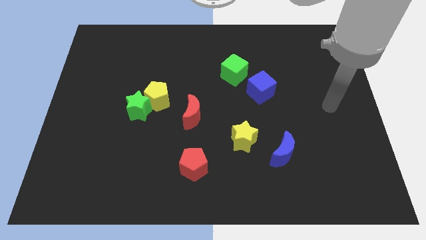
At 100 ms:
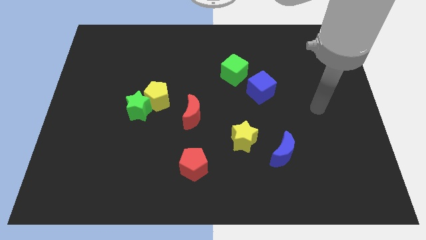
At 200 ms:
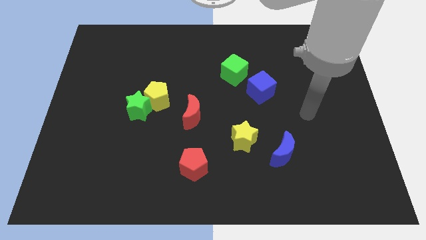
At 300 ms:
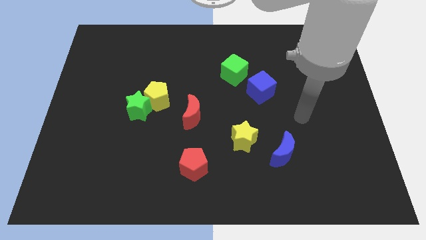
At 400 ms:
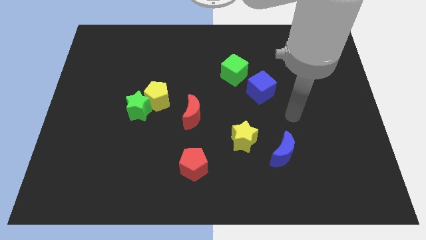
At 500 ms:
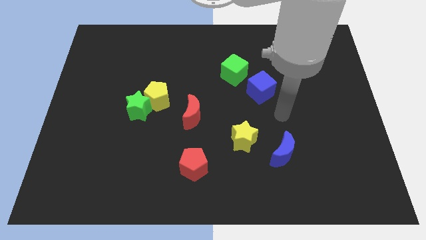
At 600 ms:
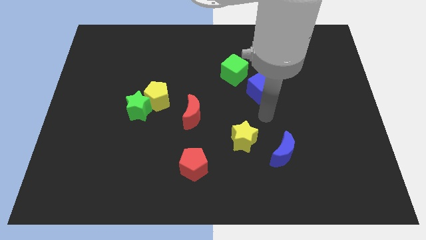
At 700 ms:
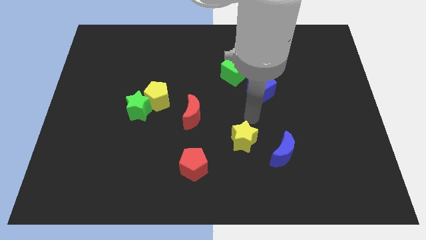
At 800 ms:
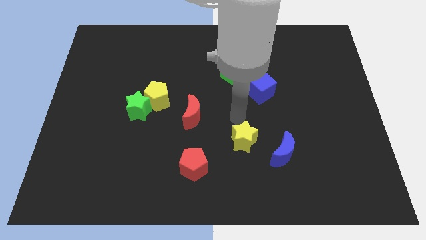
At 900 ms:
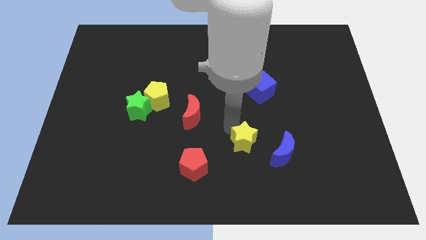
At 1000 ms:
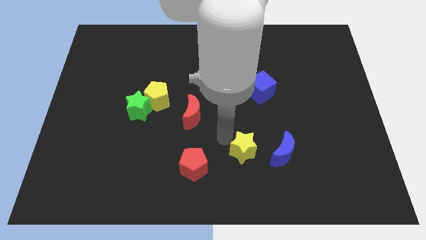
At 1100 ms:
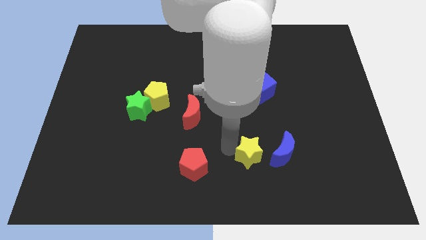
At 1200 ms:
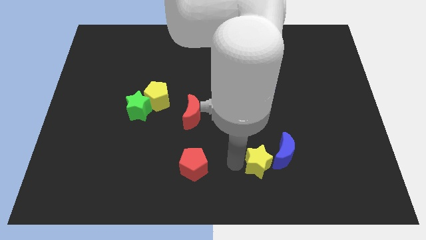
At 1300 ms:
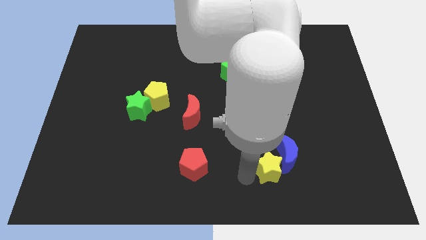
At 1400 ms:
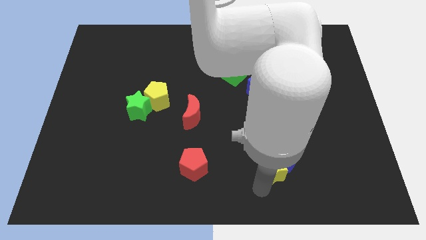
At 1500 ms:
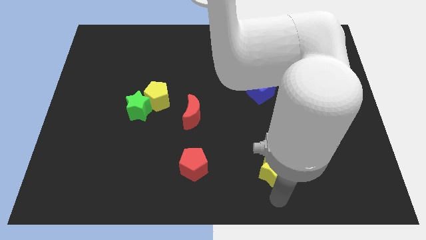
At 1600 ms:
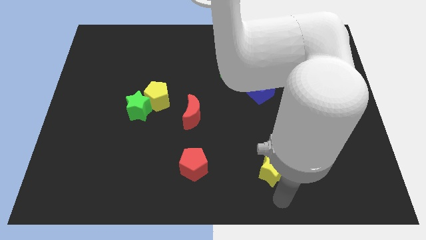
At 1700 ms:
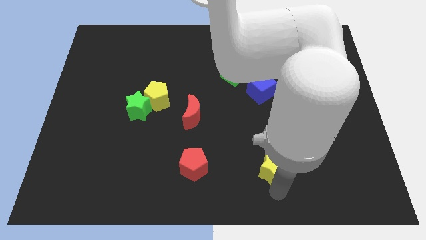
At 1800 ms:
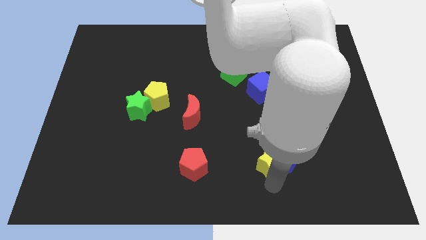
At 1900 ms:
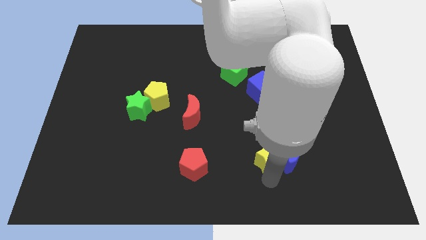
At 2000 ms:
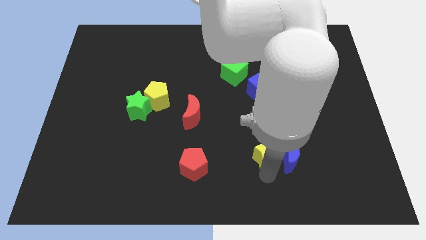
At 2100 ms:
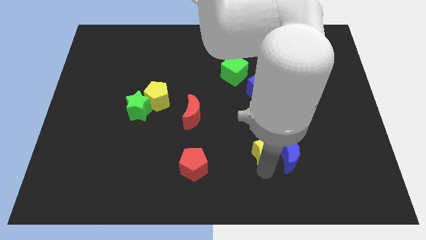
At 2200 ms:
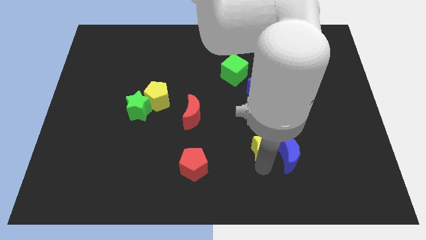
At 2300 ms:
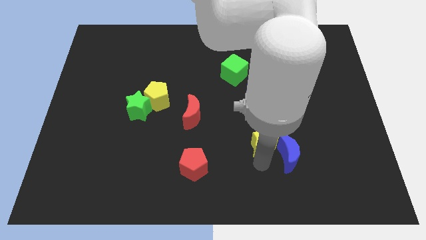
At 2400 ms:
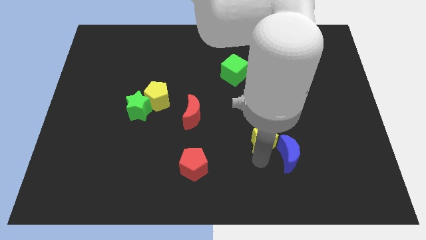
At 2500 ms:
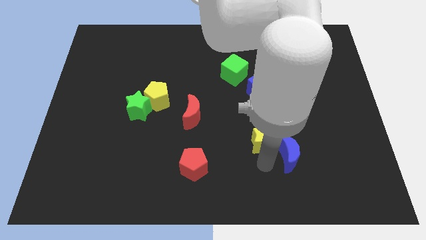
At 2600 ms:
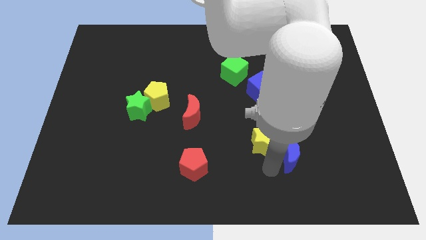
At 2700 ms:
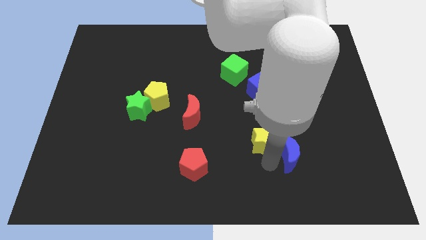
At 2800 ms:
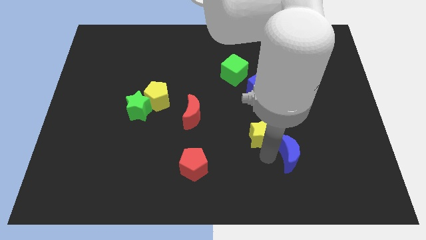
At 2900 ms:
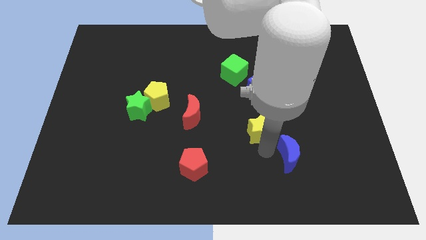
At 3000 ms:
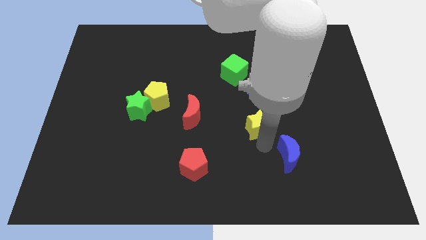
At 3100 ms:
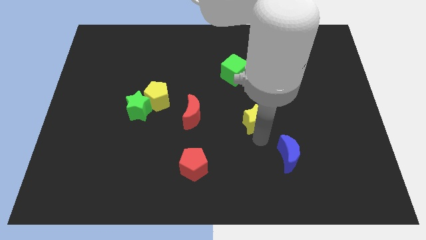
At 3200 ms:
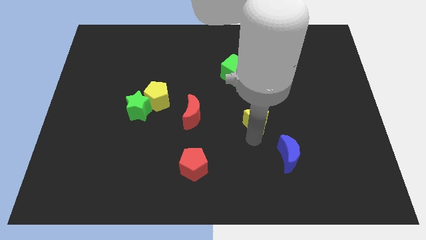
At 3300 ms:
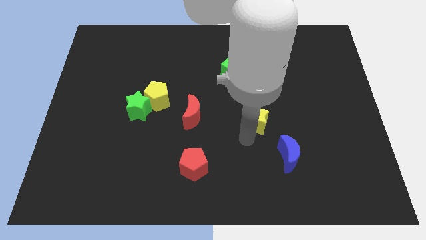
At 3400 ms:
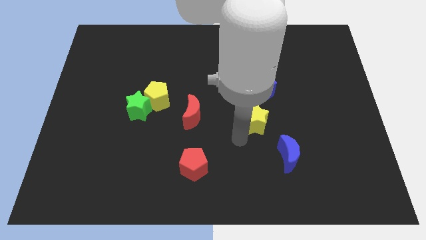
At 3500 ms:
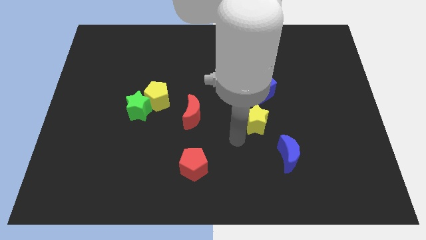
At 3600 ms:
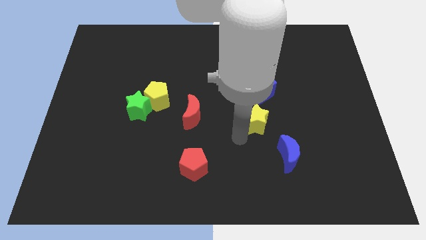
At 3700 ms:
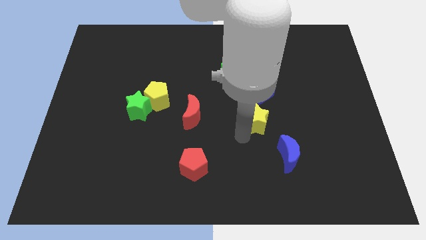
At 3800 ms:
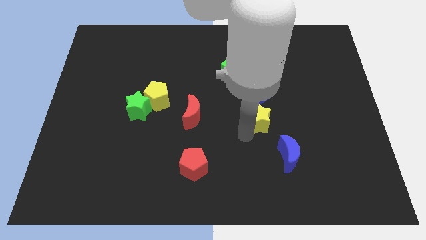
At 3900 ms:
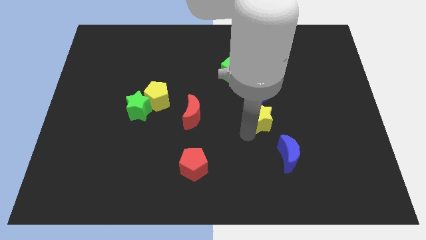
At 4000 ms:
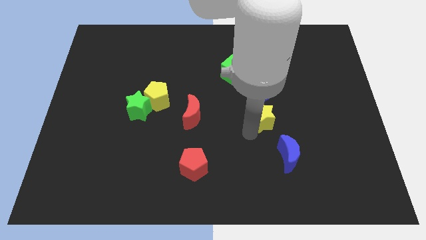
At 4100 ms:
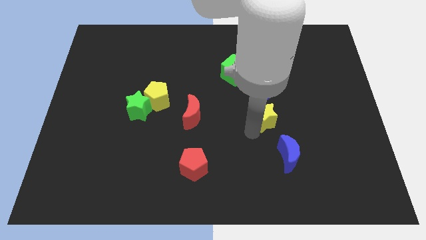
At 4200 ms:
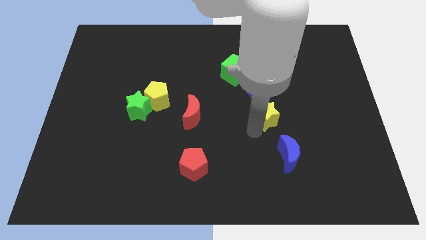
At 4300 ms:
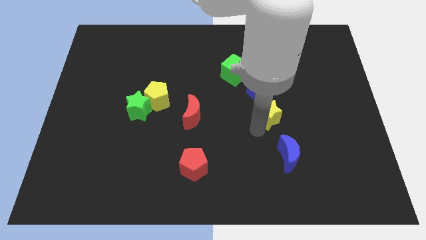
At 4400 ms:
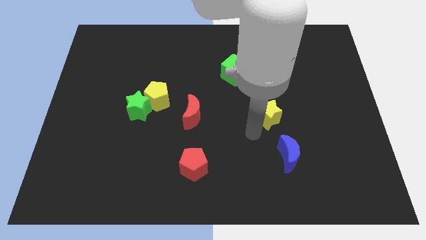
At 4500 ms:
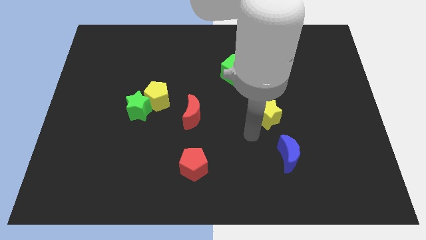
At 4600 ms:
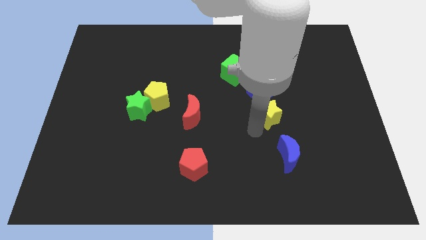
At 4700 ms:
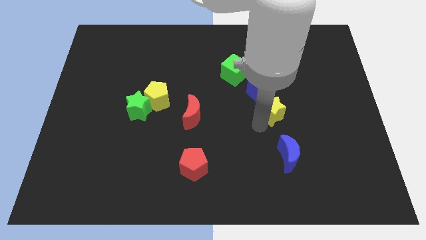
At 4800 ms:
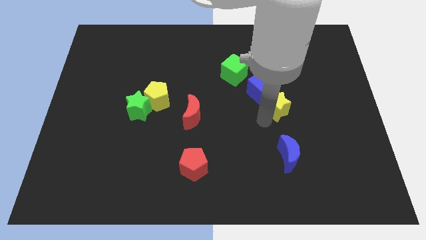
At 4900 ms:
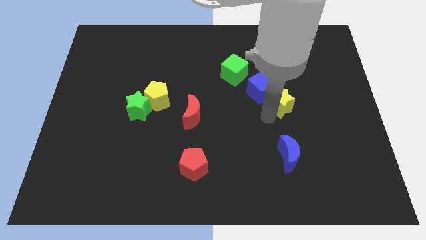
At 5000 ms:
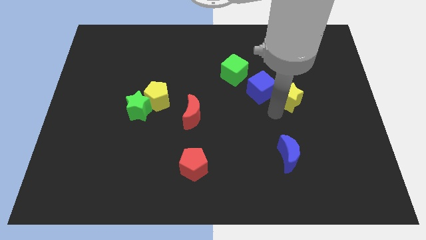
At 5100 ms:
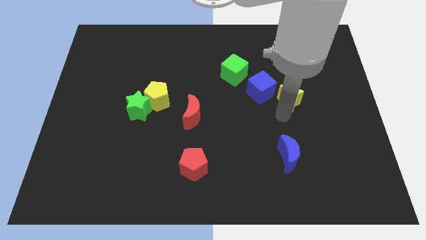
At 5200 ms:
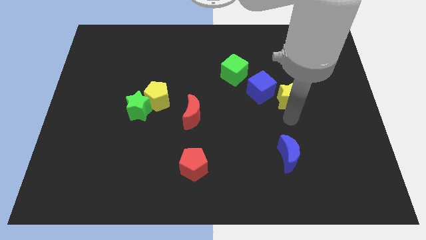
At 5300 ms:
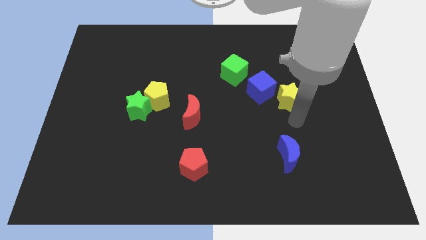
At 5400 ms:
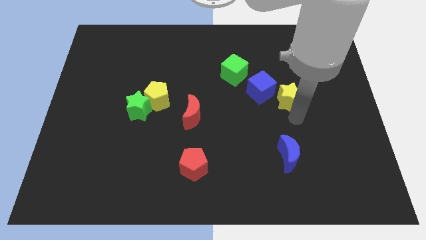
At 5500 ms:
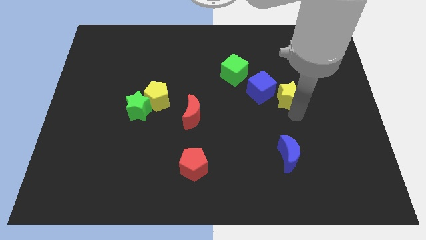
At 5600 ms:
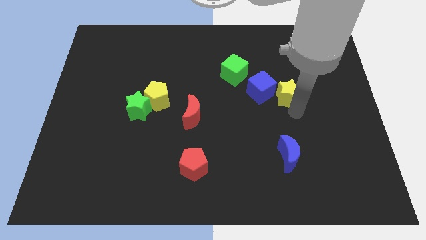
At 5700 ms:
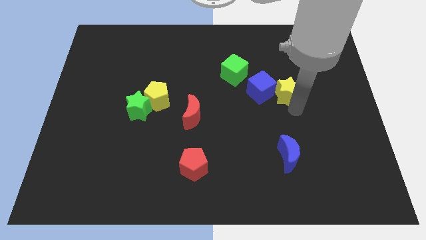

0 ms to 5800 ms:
move the yellow star to the top right side of the blue cube

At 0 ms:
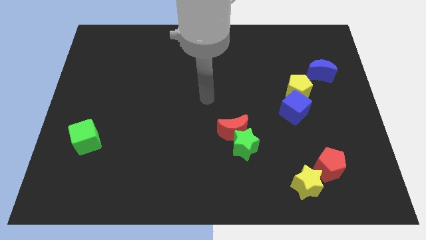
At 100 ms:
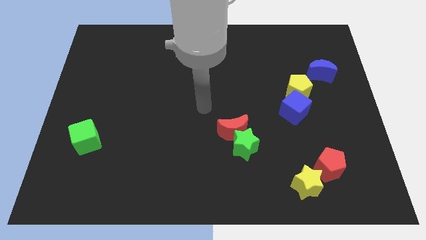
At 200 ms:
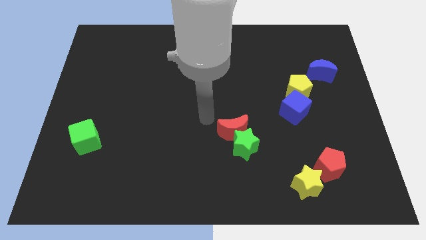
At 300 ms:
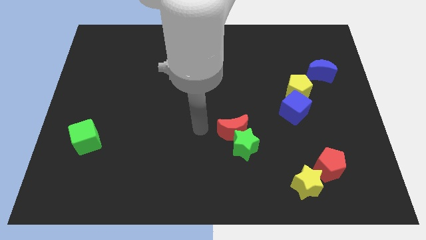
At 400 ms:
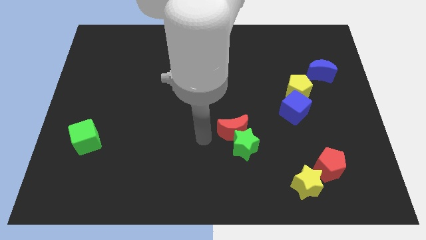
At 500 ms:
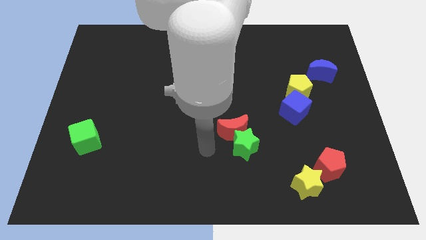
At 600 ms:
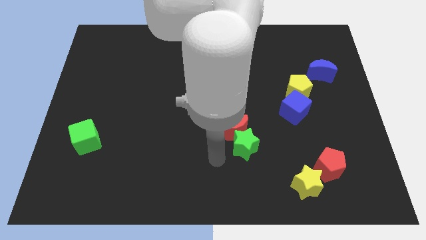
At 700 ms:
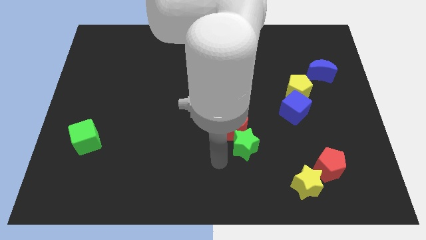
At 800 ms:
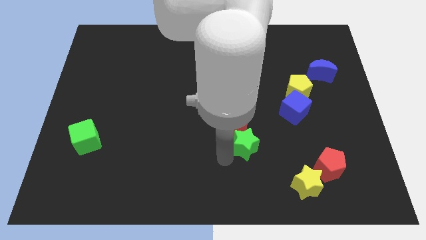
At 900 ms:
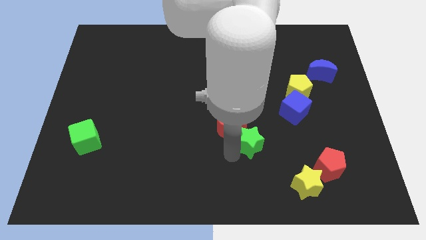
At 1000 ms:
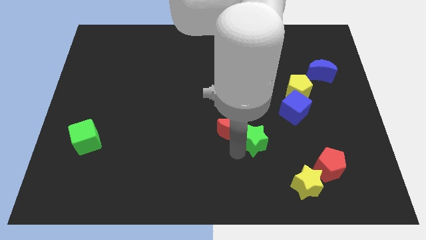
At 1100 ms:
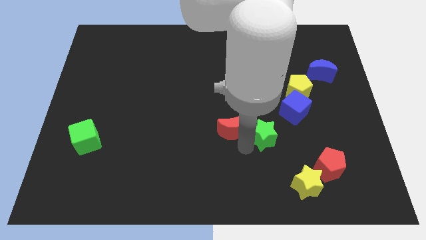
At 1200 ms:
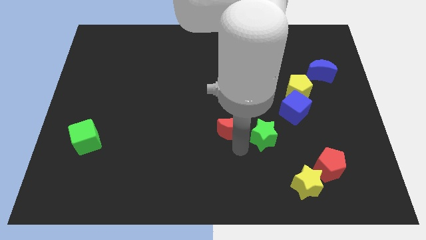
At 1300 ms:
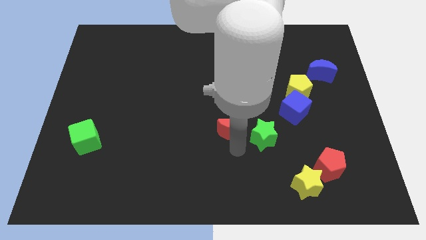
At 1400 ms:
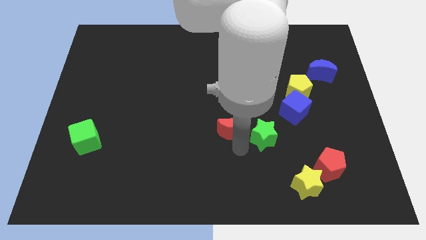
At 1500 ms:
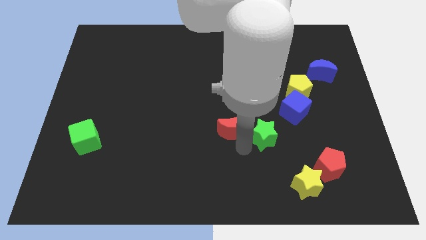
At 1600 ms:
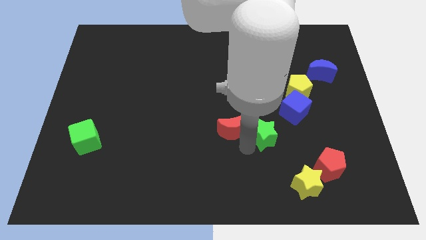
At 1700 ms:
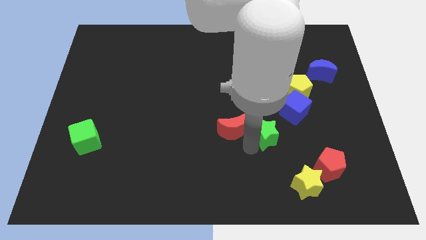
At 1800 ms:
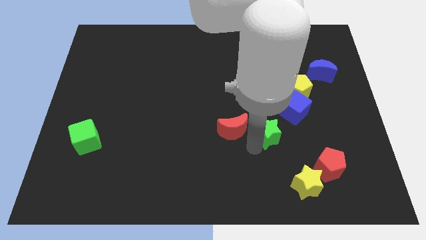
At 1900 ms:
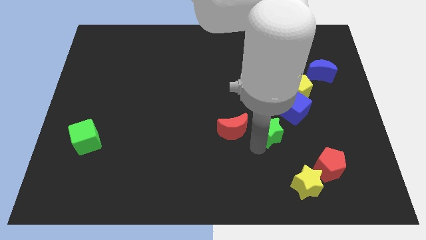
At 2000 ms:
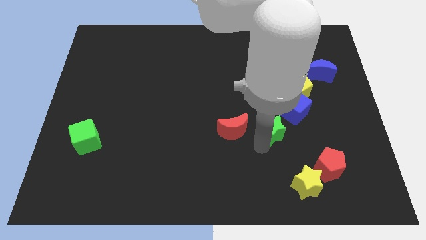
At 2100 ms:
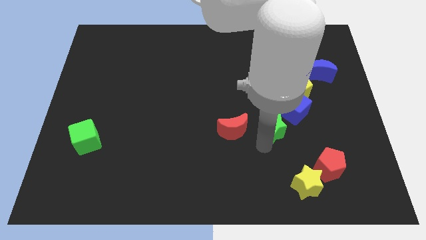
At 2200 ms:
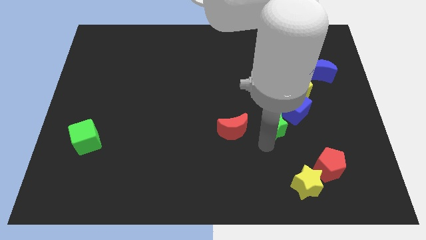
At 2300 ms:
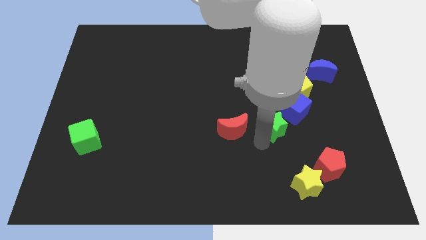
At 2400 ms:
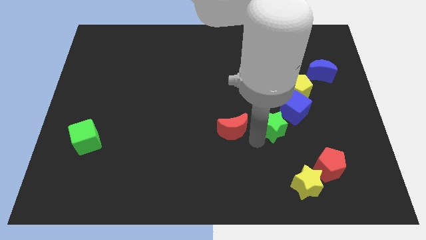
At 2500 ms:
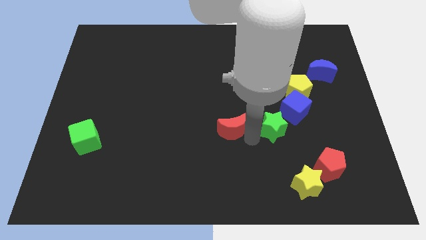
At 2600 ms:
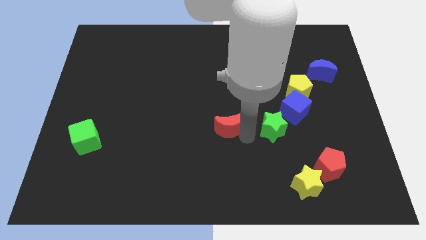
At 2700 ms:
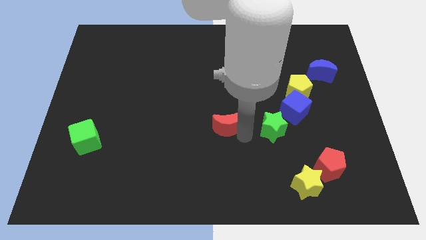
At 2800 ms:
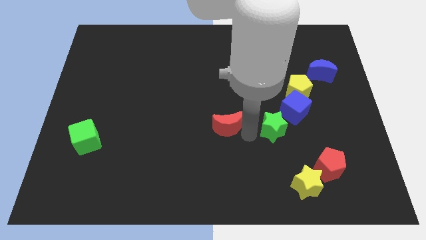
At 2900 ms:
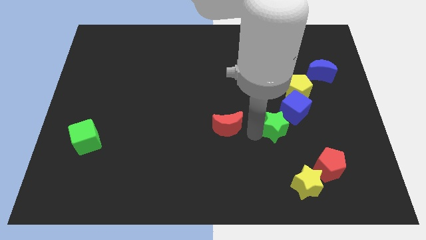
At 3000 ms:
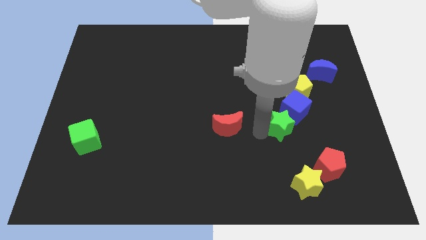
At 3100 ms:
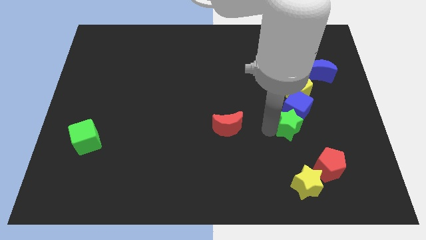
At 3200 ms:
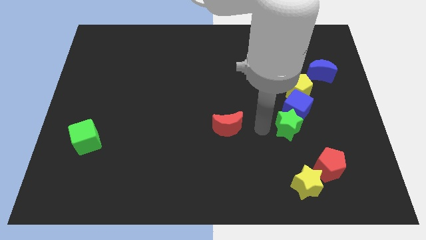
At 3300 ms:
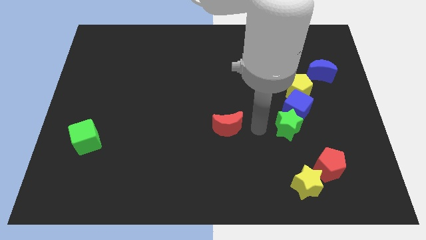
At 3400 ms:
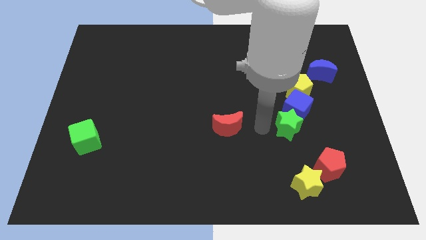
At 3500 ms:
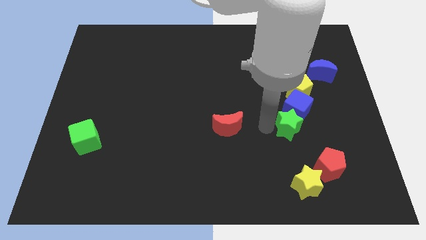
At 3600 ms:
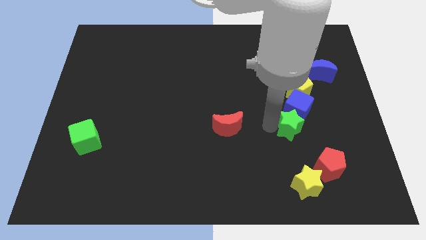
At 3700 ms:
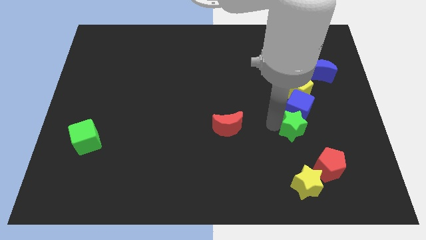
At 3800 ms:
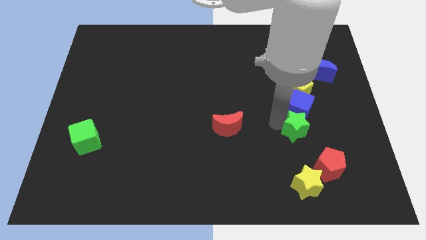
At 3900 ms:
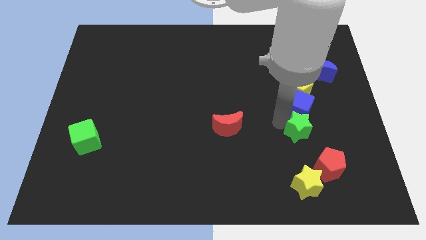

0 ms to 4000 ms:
slide the green star to the bottom right of the blue cube
